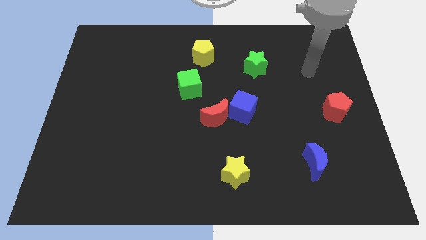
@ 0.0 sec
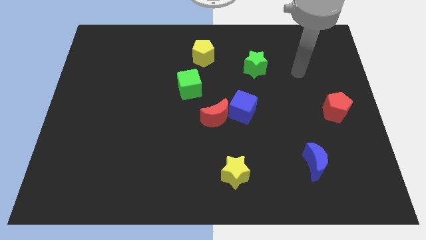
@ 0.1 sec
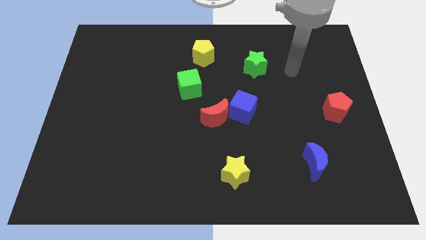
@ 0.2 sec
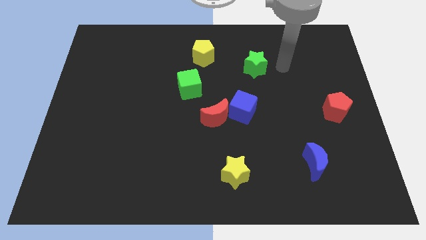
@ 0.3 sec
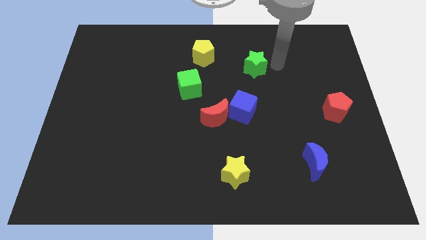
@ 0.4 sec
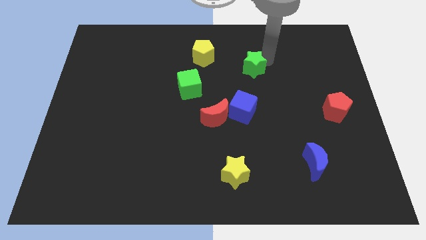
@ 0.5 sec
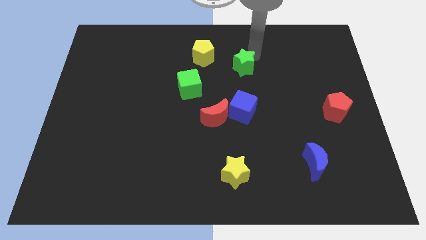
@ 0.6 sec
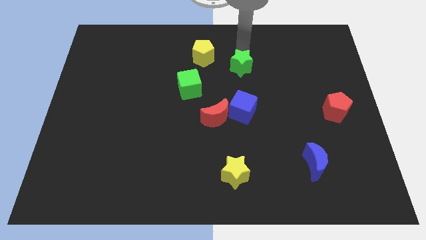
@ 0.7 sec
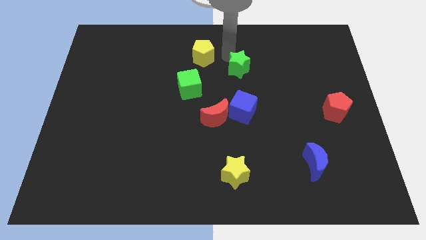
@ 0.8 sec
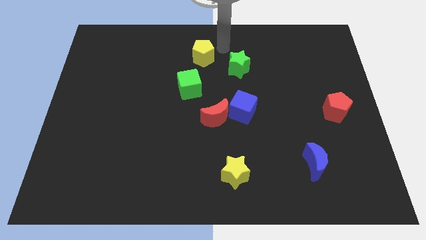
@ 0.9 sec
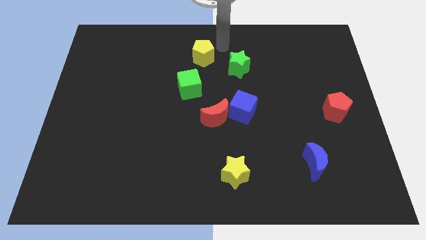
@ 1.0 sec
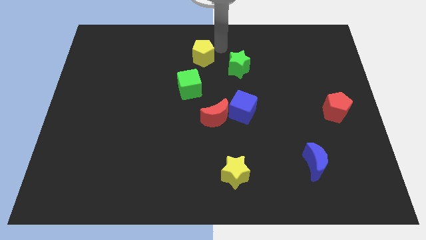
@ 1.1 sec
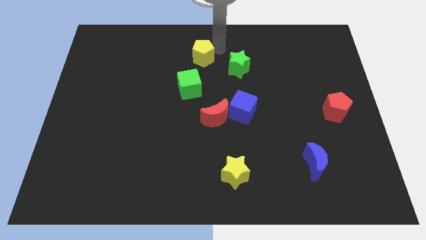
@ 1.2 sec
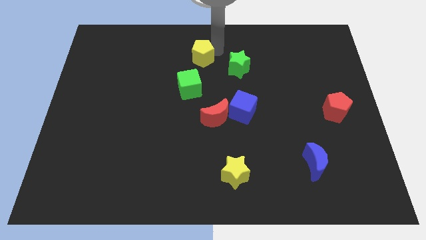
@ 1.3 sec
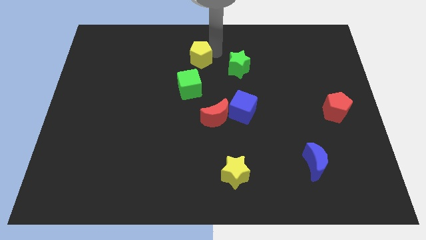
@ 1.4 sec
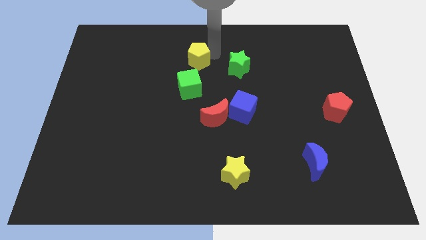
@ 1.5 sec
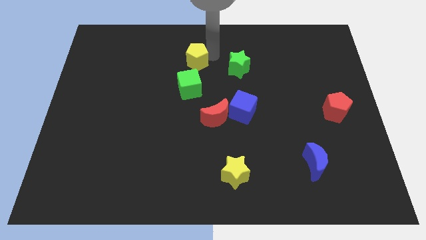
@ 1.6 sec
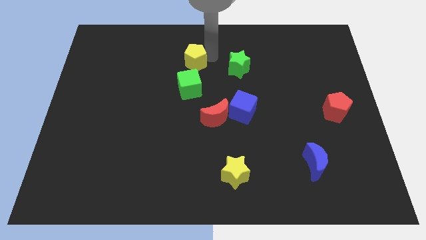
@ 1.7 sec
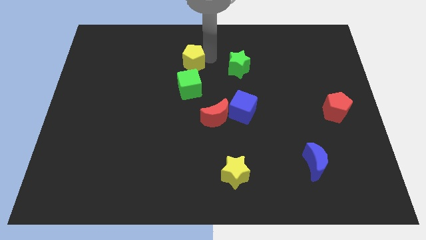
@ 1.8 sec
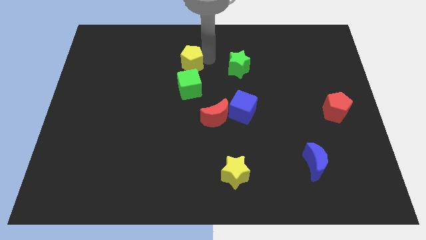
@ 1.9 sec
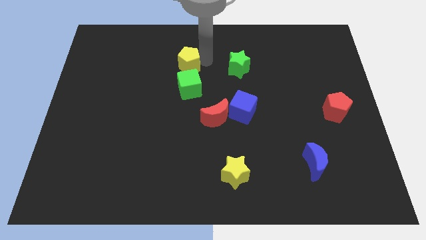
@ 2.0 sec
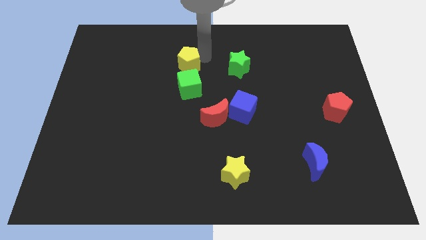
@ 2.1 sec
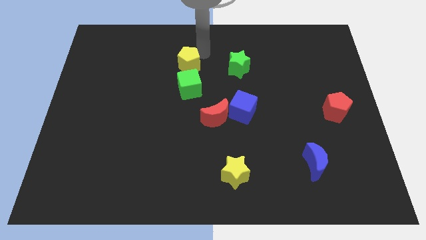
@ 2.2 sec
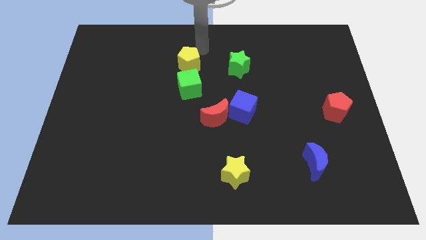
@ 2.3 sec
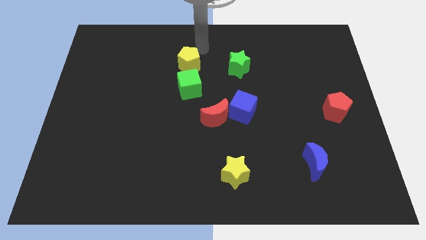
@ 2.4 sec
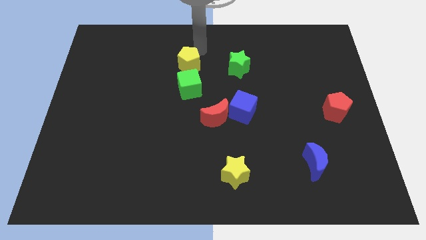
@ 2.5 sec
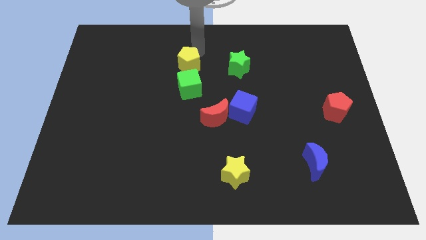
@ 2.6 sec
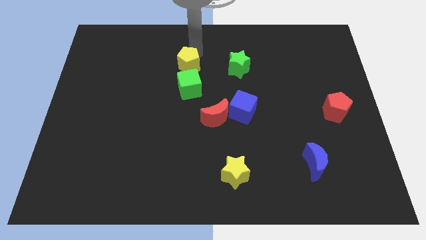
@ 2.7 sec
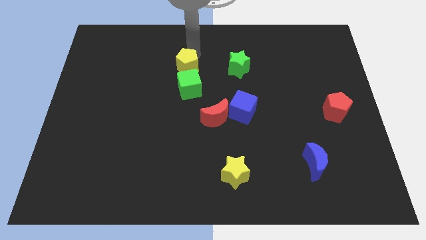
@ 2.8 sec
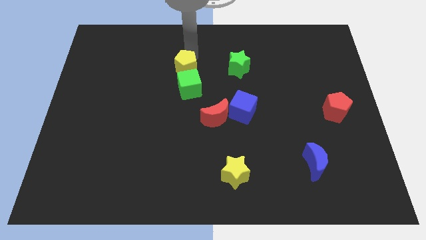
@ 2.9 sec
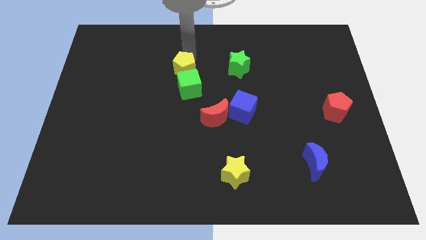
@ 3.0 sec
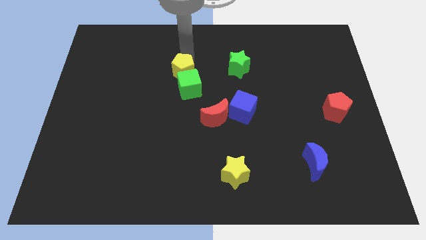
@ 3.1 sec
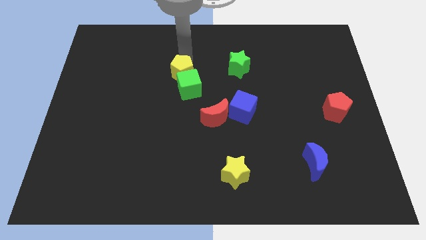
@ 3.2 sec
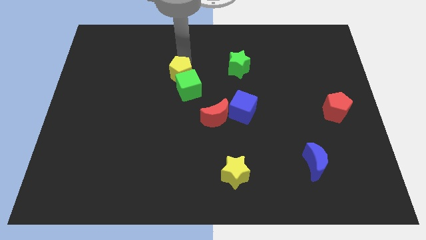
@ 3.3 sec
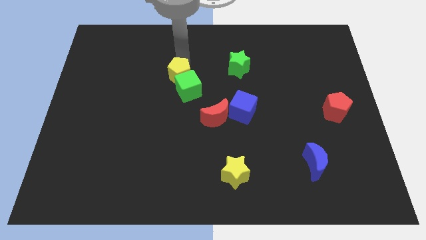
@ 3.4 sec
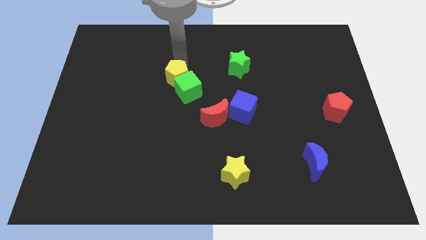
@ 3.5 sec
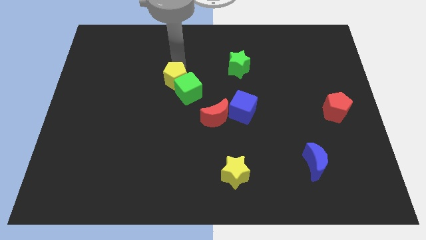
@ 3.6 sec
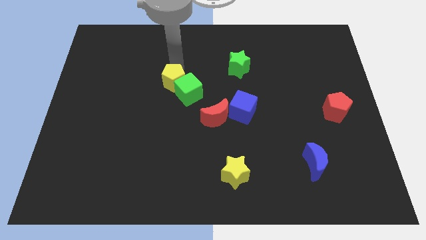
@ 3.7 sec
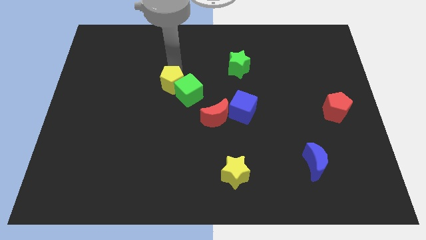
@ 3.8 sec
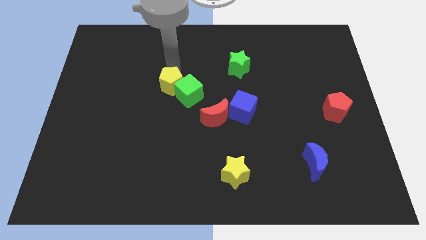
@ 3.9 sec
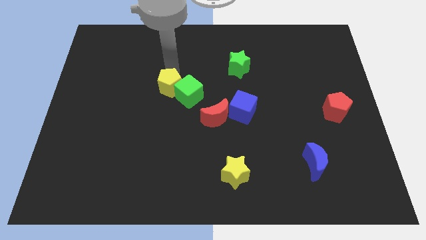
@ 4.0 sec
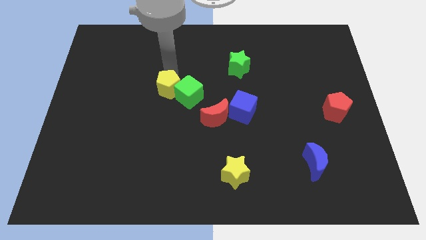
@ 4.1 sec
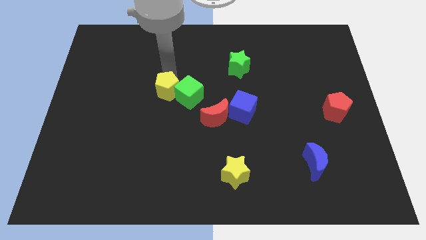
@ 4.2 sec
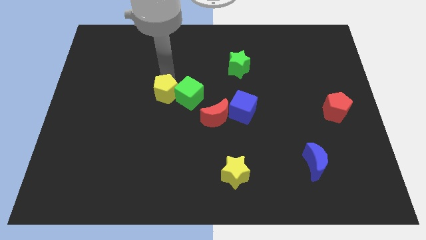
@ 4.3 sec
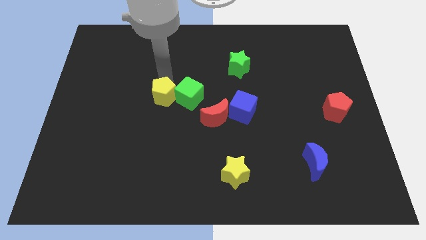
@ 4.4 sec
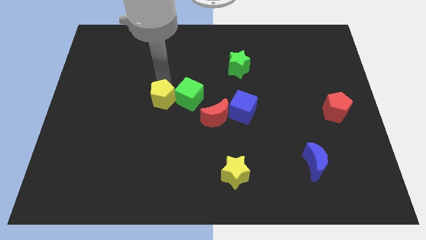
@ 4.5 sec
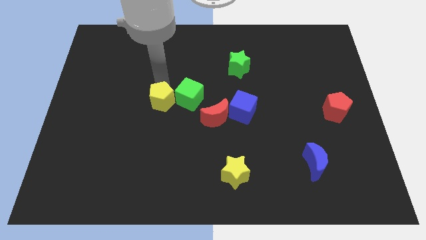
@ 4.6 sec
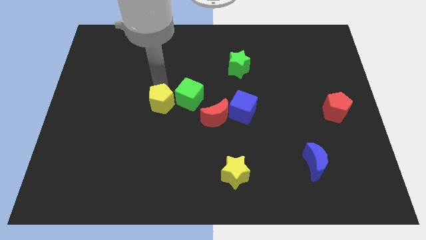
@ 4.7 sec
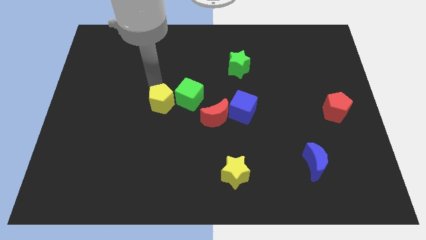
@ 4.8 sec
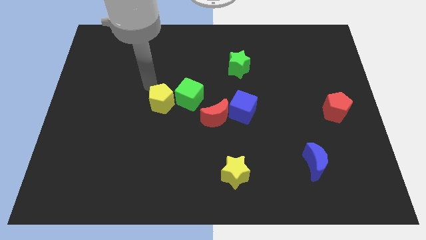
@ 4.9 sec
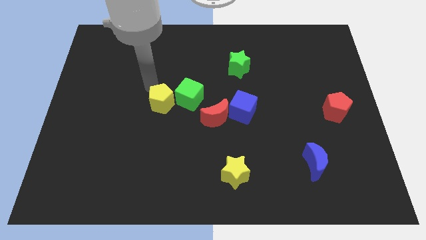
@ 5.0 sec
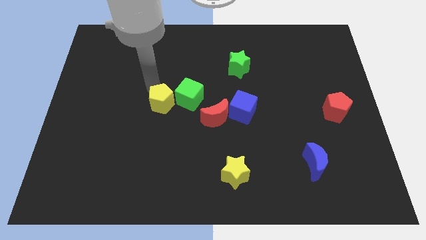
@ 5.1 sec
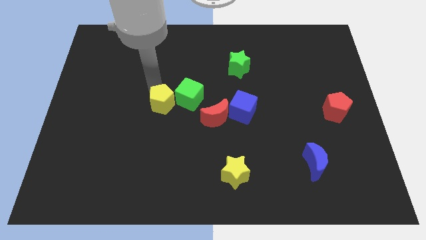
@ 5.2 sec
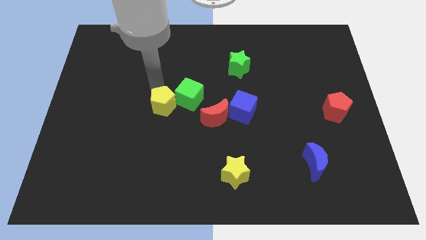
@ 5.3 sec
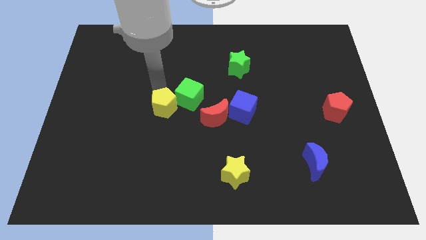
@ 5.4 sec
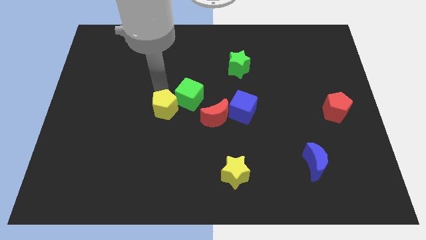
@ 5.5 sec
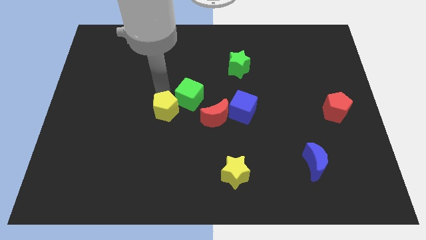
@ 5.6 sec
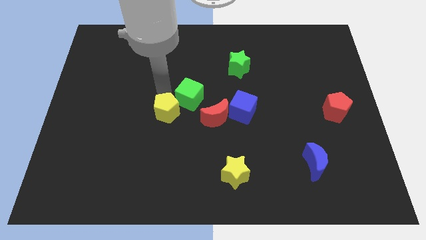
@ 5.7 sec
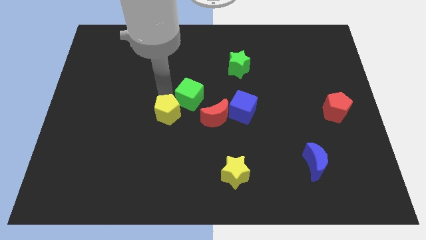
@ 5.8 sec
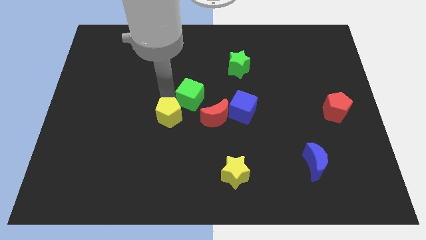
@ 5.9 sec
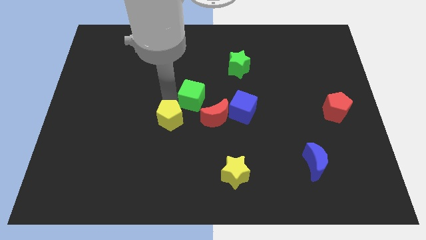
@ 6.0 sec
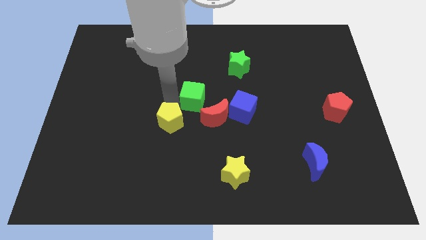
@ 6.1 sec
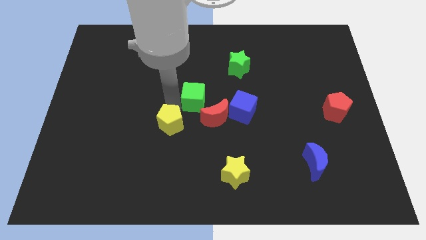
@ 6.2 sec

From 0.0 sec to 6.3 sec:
slide the yellow pentagon down

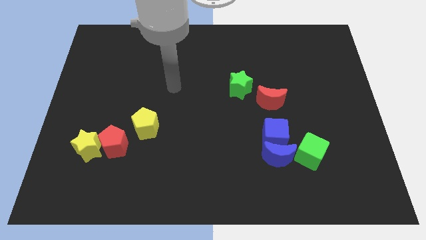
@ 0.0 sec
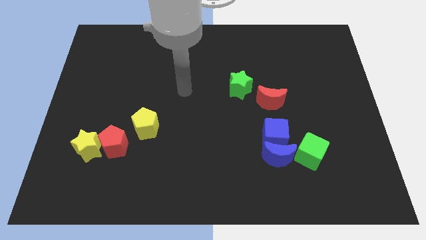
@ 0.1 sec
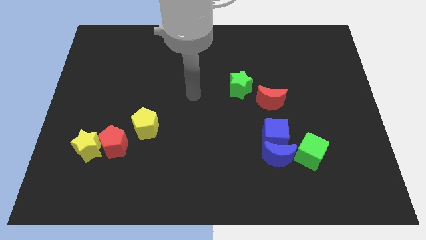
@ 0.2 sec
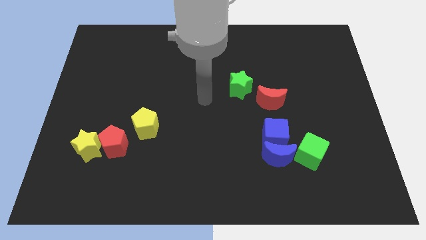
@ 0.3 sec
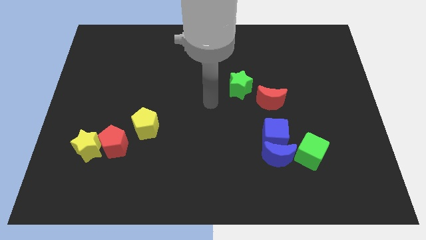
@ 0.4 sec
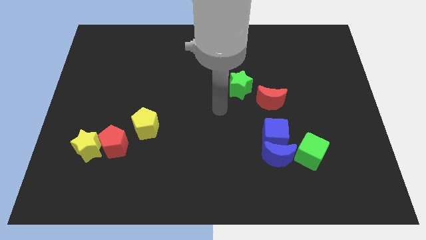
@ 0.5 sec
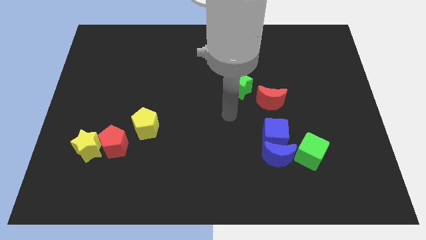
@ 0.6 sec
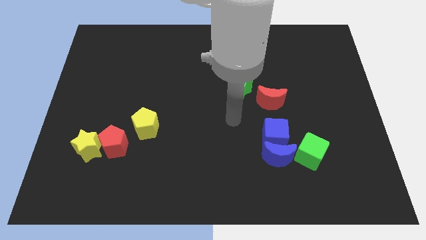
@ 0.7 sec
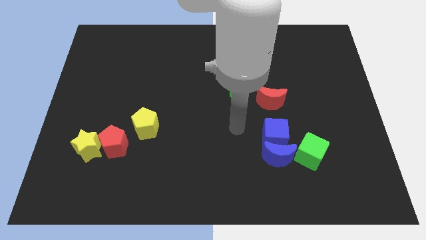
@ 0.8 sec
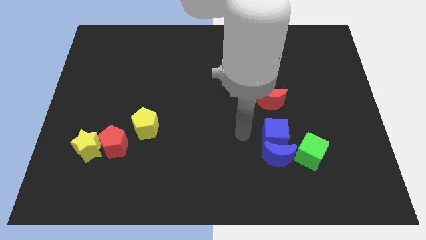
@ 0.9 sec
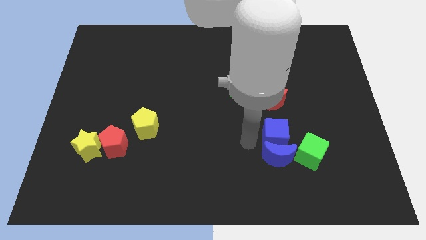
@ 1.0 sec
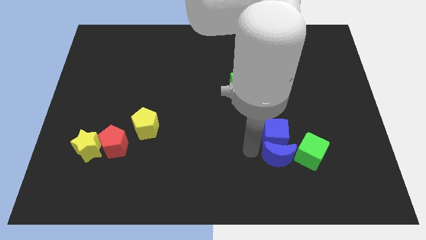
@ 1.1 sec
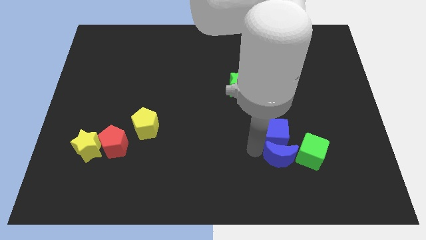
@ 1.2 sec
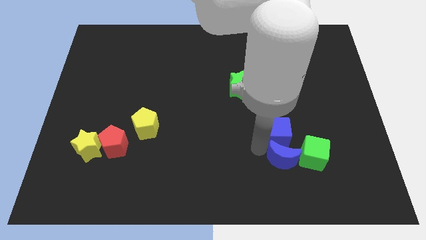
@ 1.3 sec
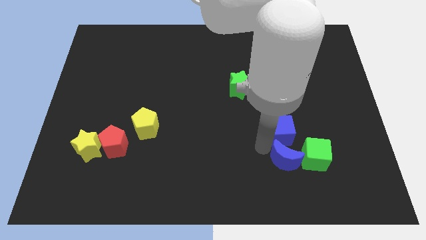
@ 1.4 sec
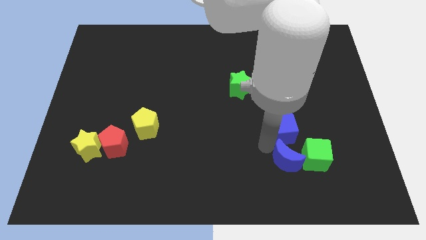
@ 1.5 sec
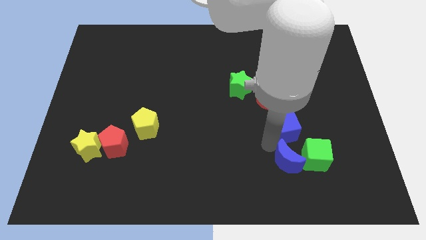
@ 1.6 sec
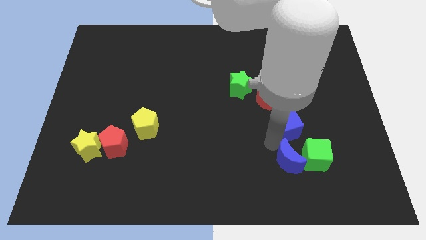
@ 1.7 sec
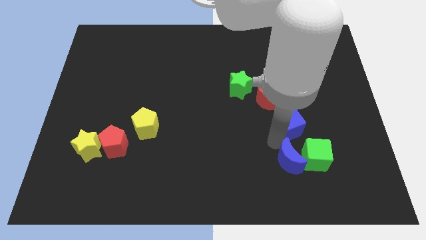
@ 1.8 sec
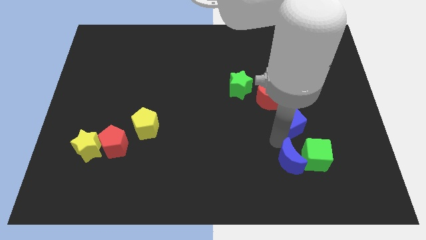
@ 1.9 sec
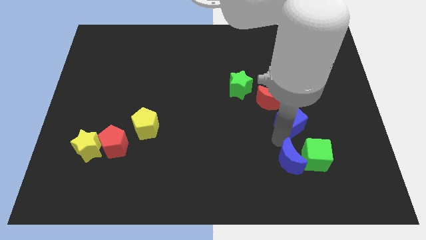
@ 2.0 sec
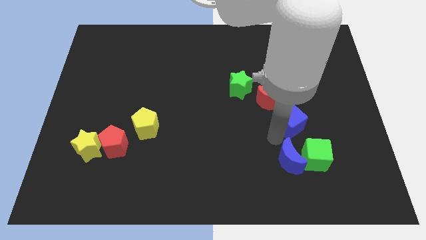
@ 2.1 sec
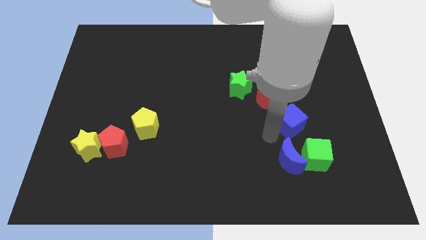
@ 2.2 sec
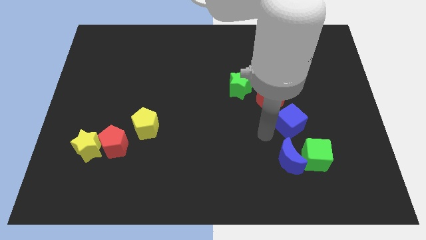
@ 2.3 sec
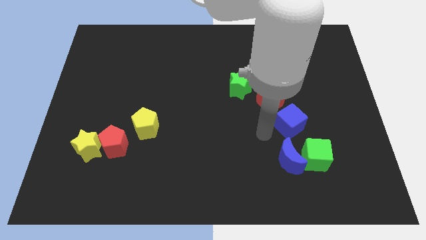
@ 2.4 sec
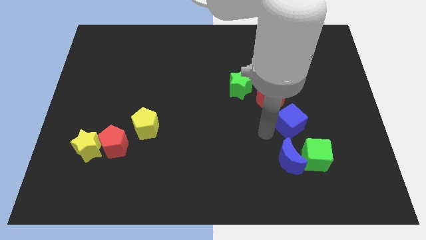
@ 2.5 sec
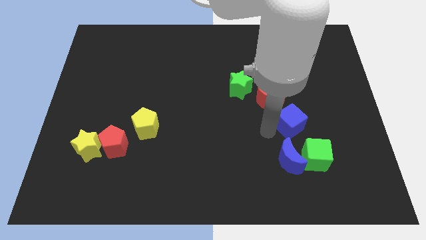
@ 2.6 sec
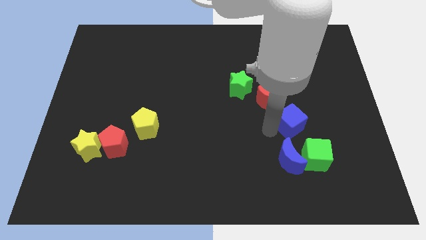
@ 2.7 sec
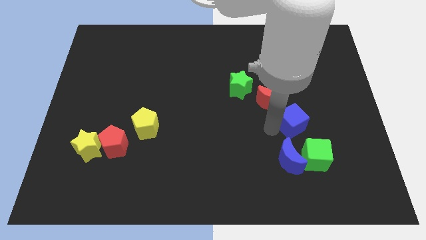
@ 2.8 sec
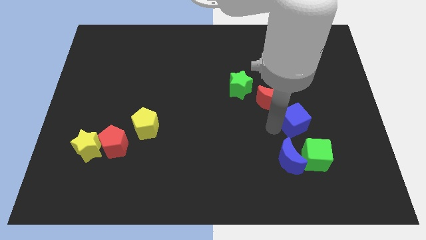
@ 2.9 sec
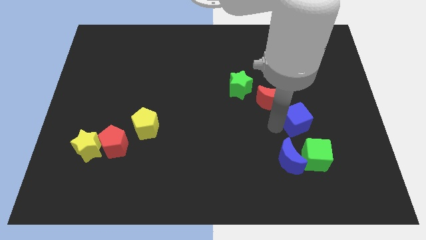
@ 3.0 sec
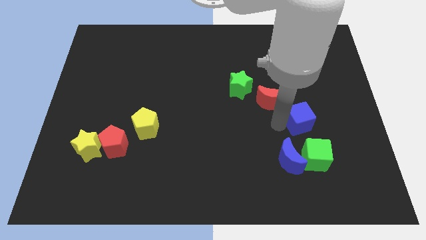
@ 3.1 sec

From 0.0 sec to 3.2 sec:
move the blue cube upwards and right diagonally a little
